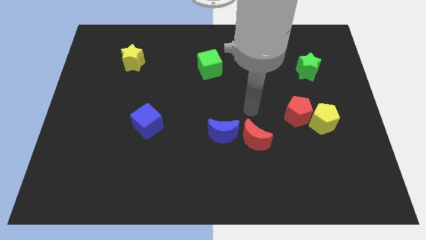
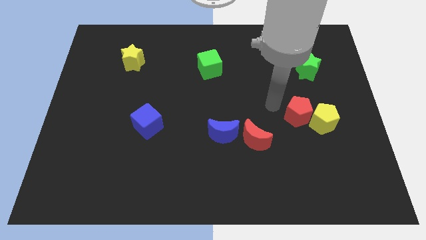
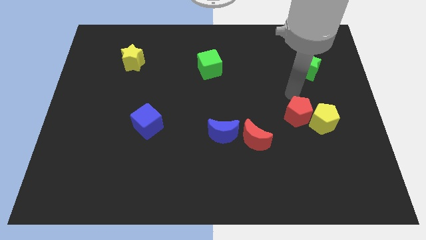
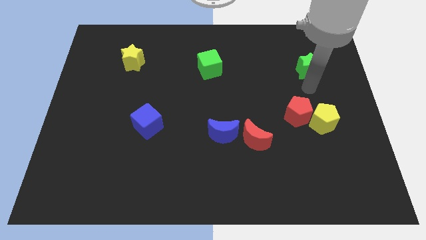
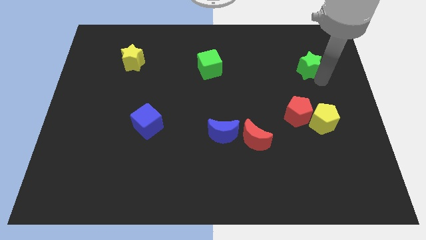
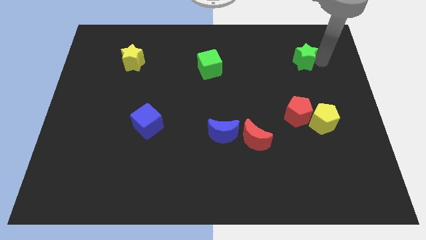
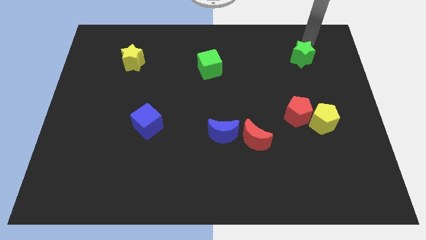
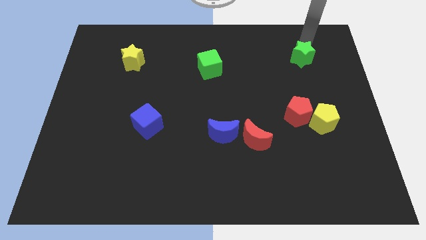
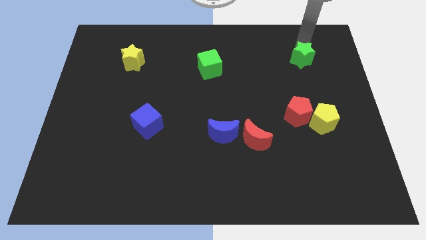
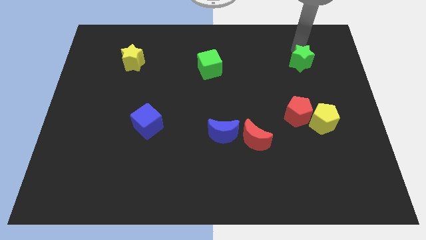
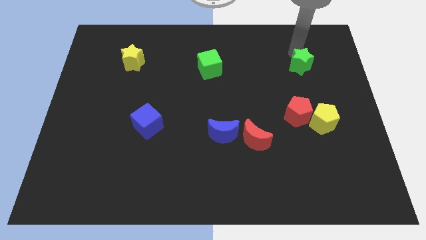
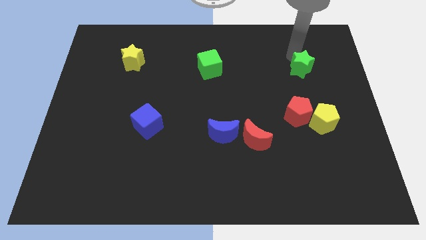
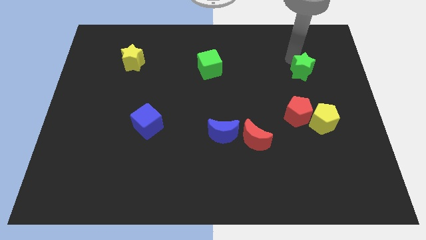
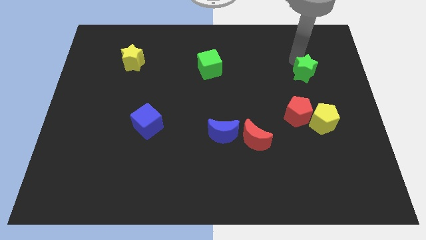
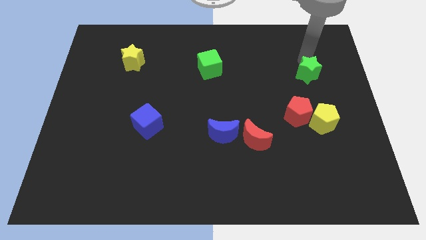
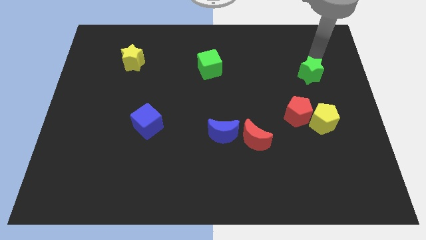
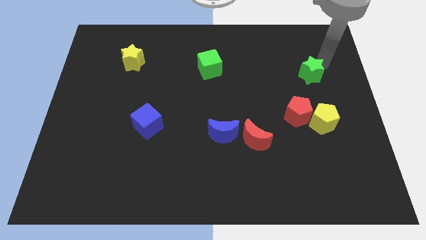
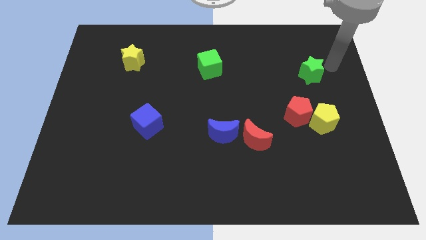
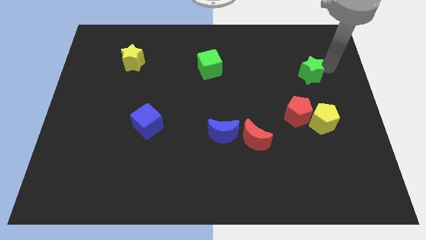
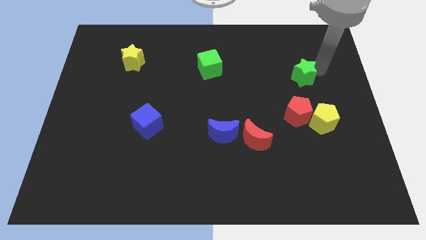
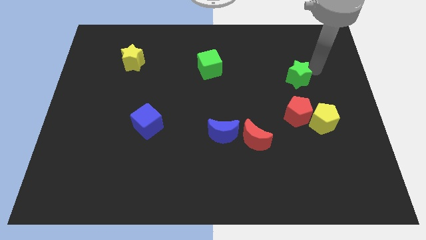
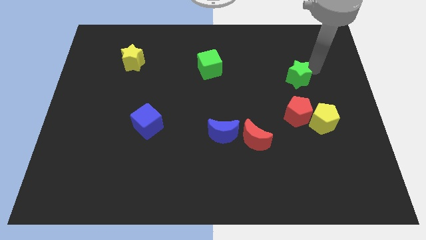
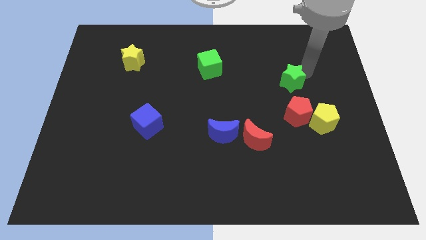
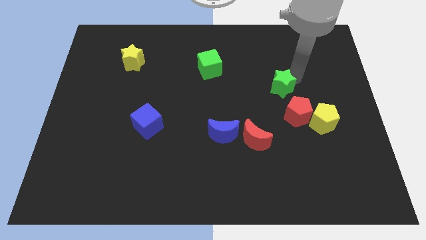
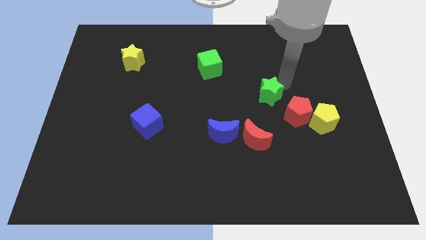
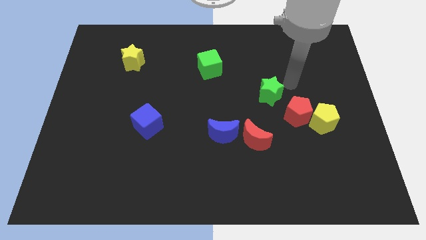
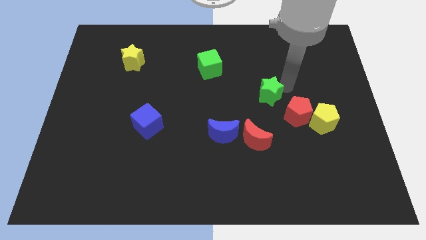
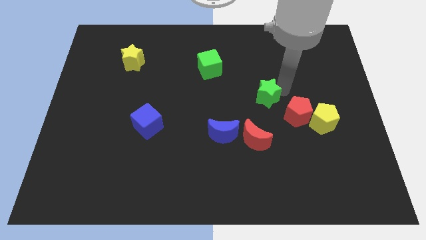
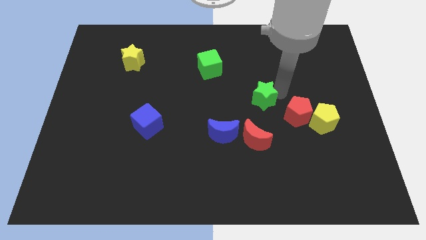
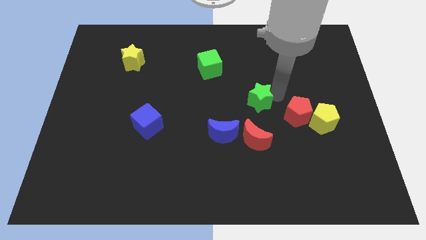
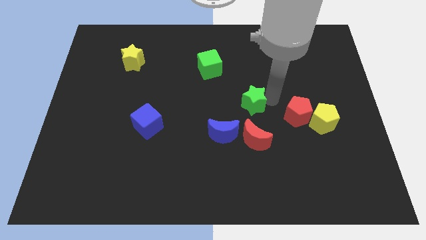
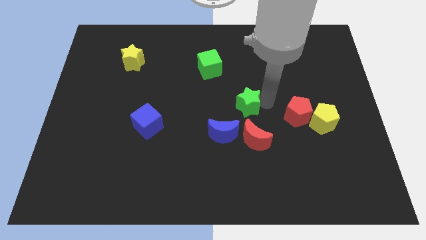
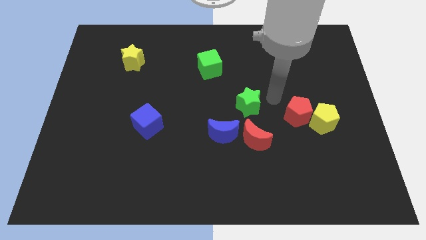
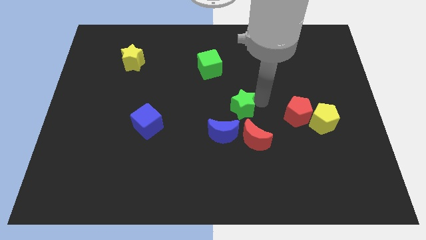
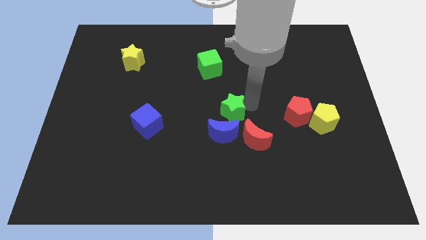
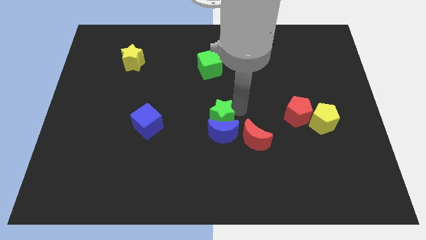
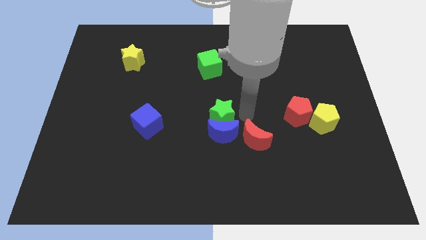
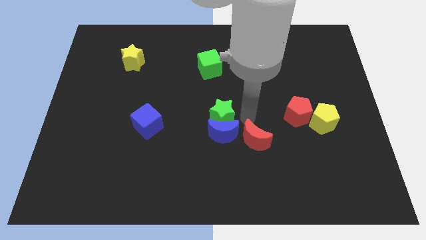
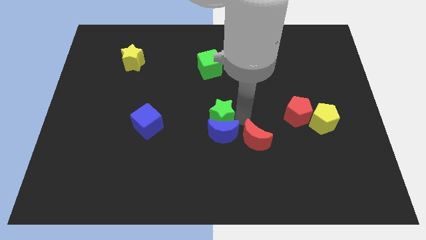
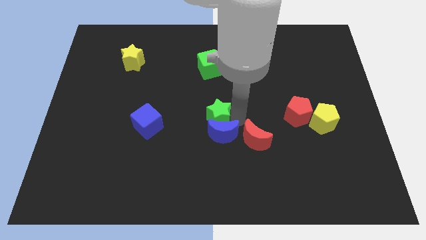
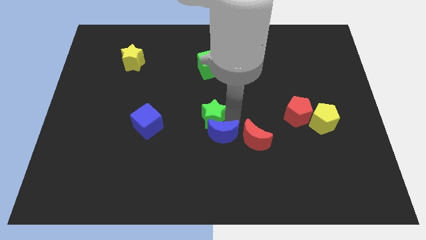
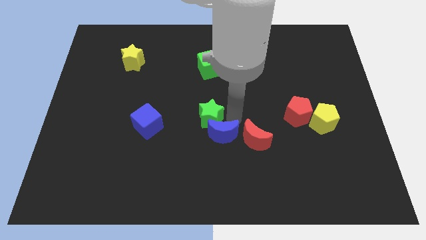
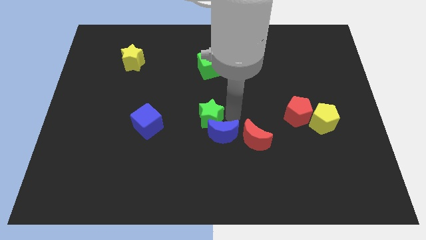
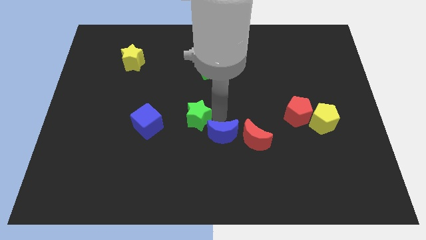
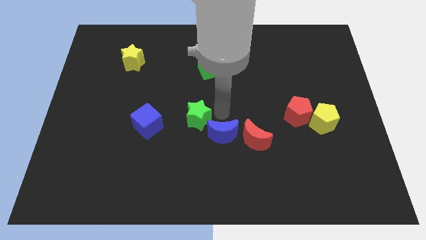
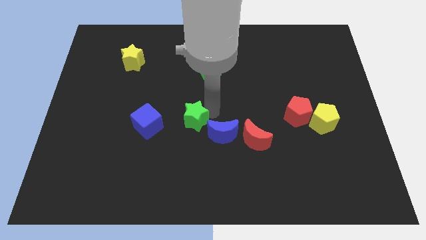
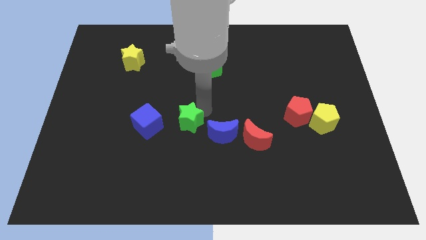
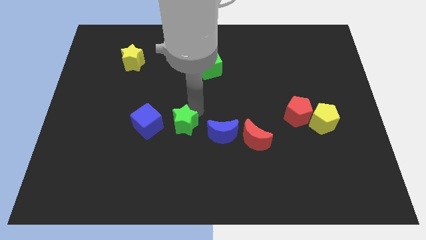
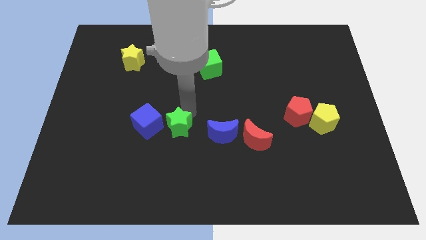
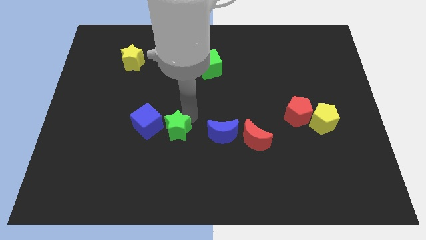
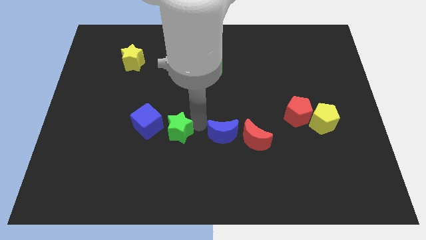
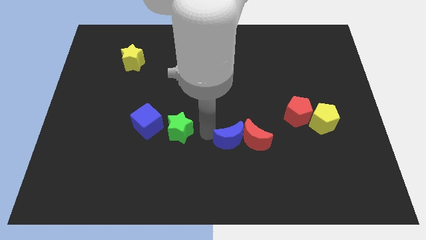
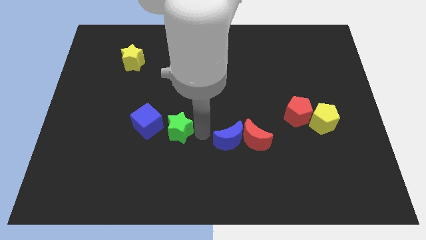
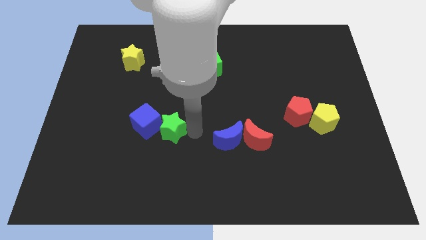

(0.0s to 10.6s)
push the green star close to the blue cube

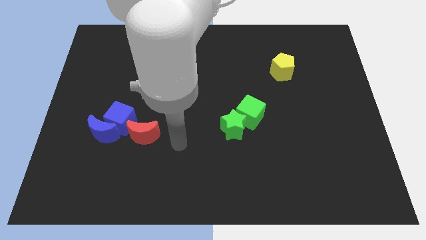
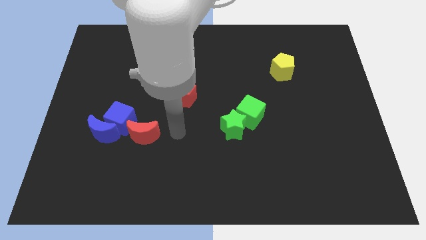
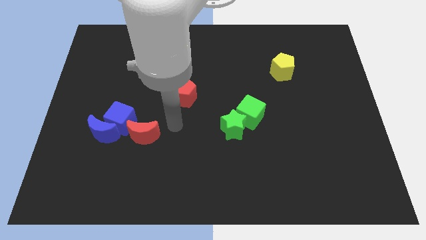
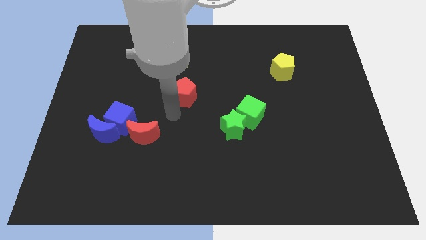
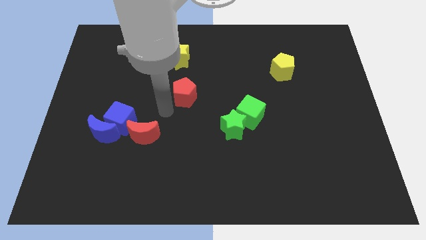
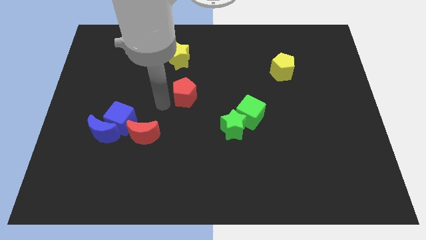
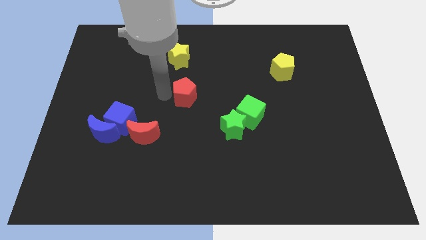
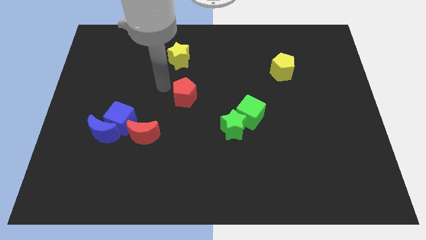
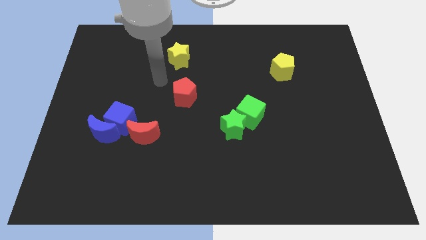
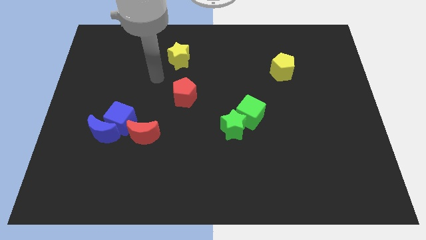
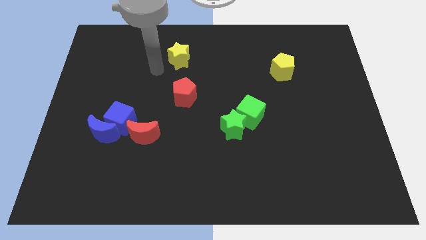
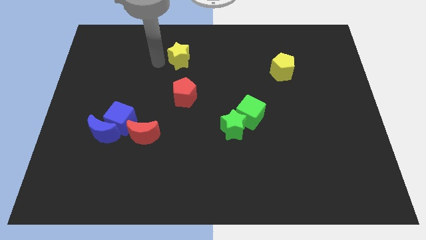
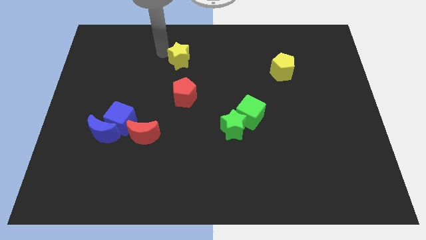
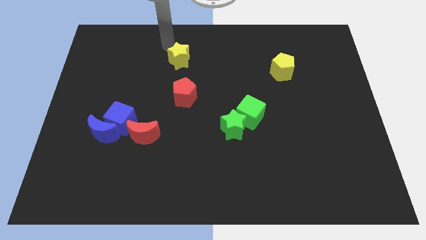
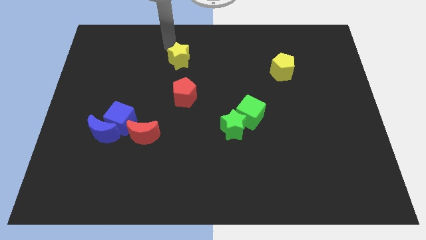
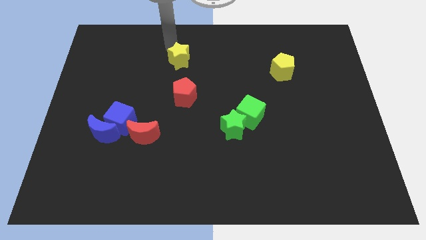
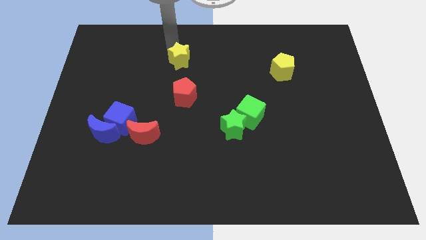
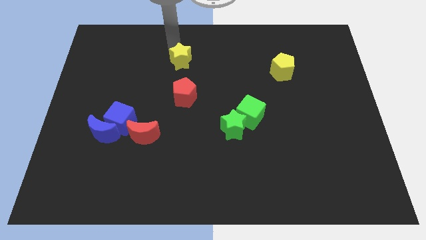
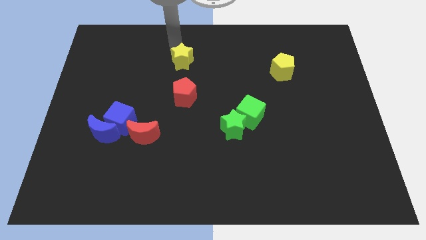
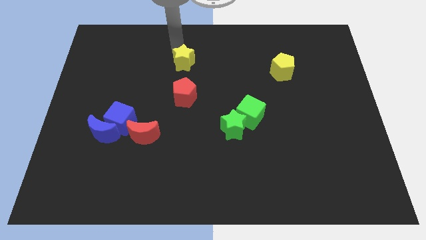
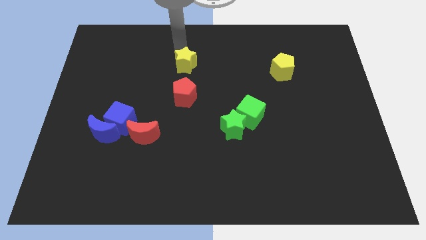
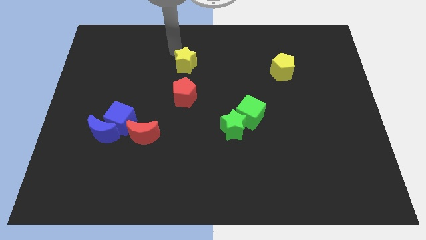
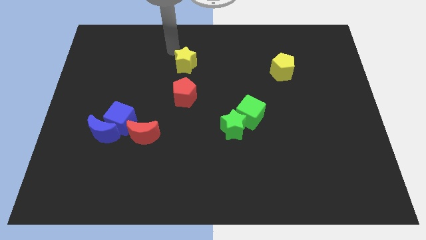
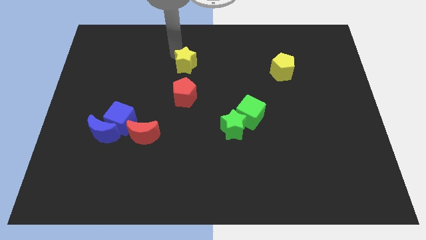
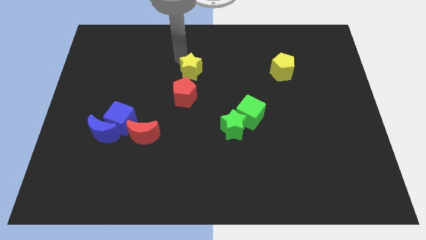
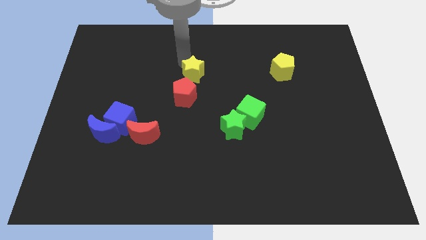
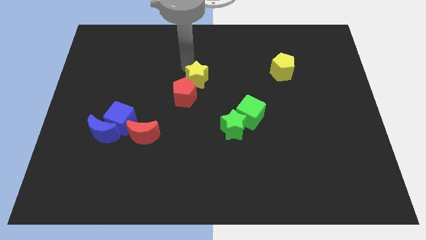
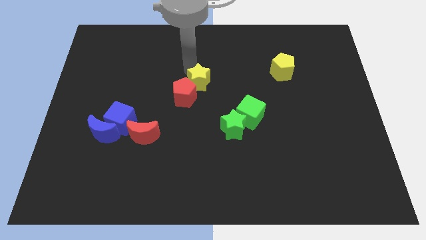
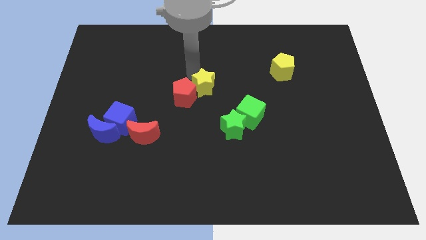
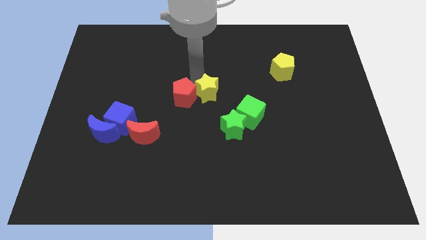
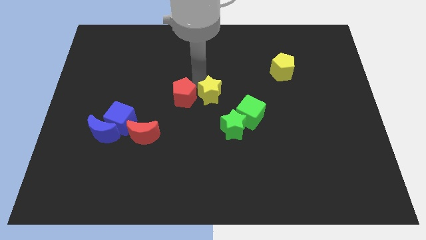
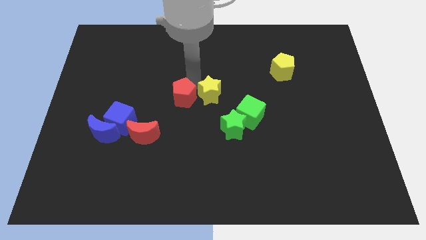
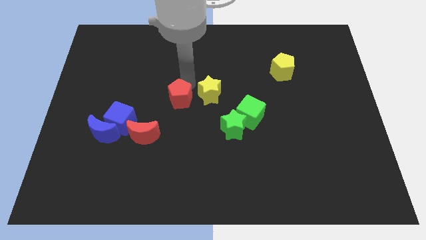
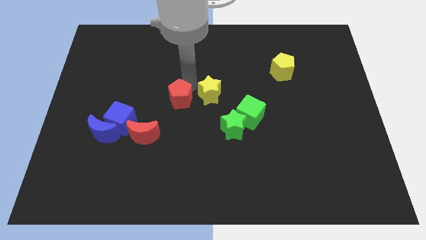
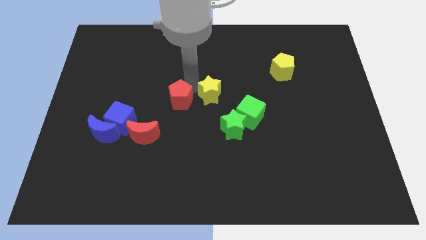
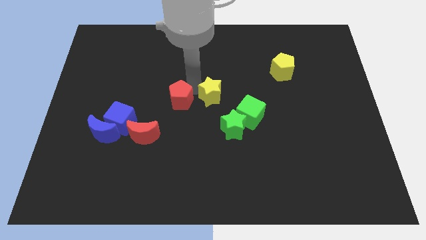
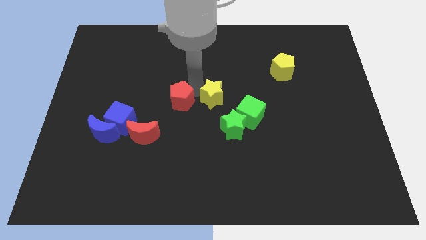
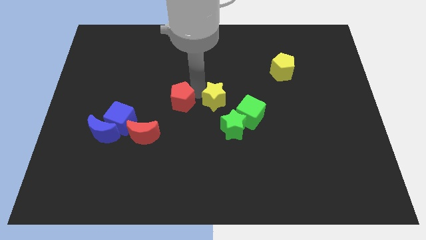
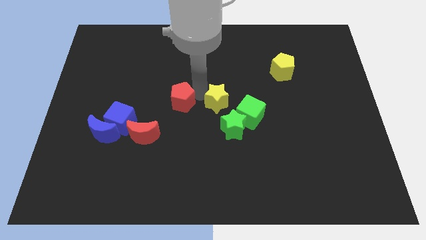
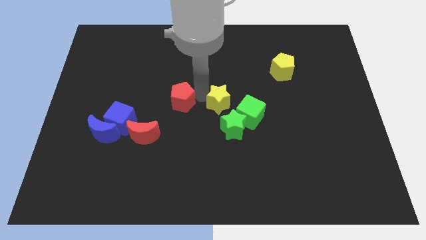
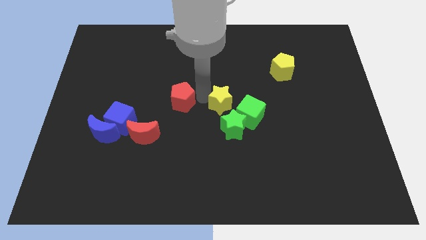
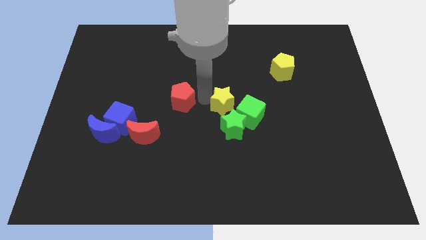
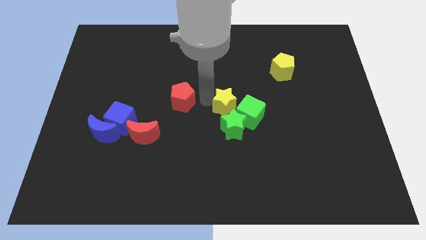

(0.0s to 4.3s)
put the yellow star close to the green cube
